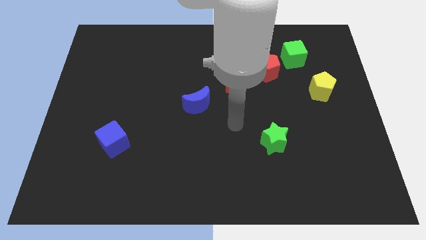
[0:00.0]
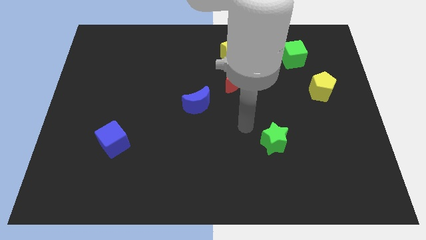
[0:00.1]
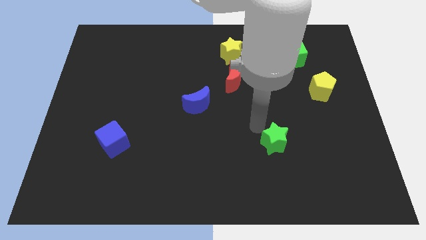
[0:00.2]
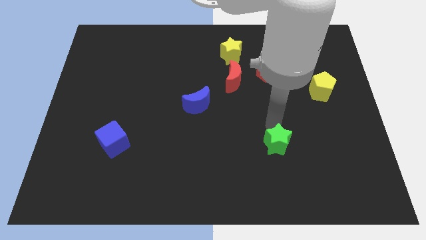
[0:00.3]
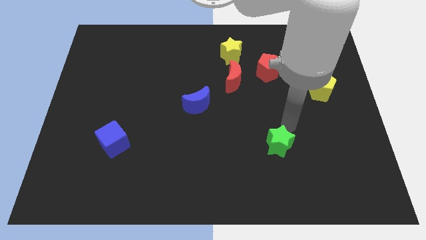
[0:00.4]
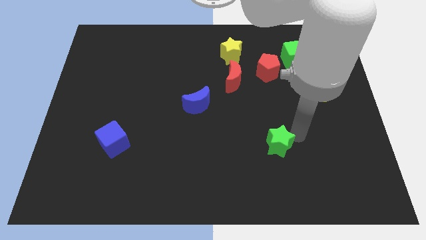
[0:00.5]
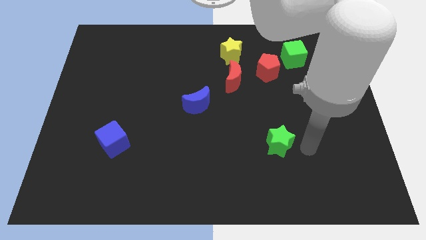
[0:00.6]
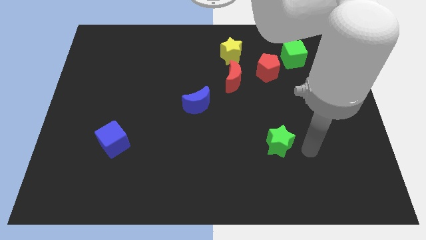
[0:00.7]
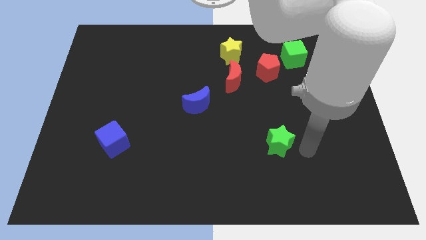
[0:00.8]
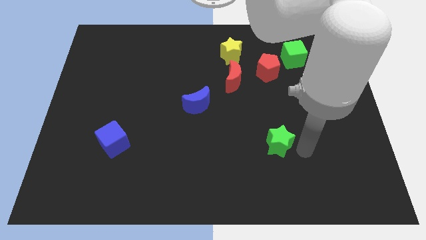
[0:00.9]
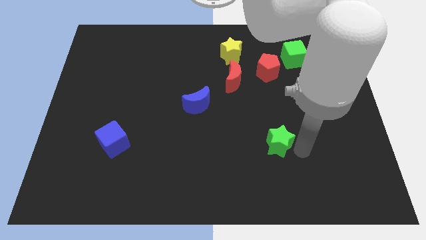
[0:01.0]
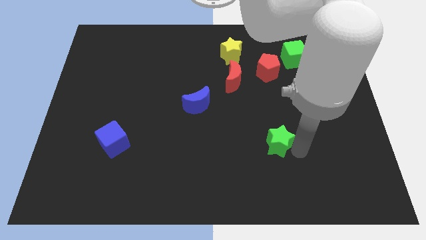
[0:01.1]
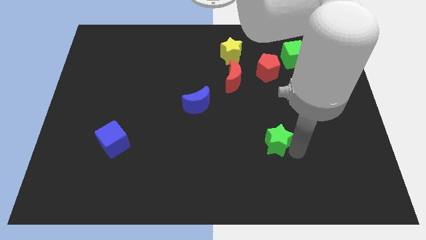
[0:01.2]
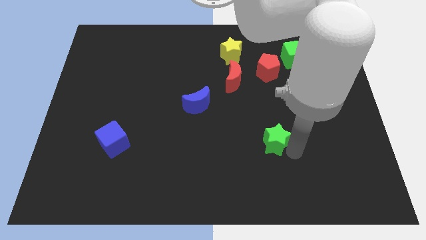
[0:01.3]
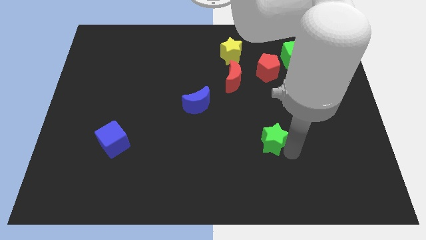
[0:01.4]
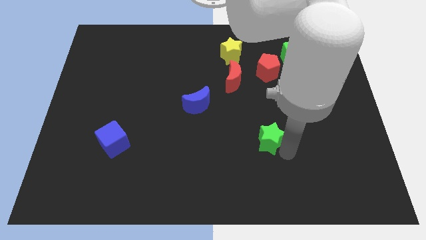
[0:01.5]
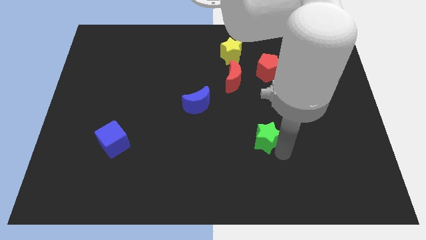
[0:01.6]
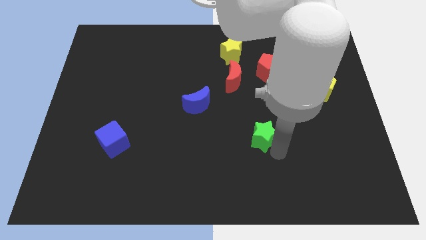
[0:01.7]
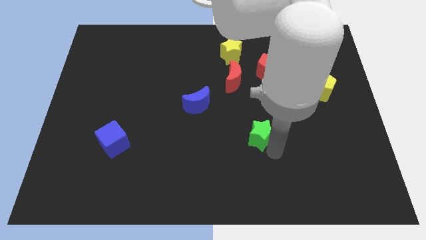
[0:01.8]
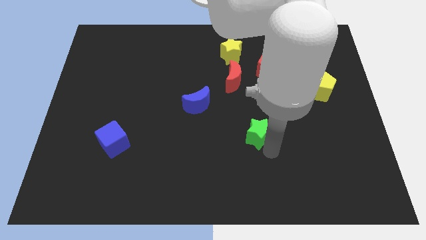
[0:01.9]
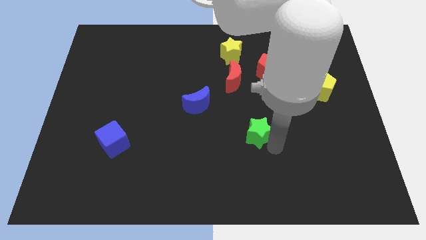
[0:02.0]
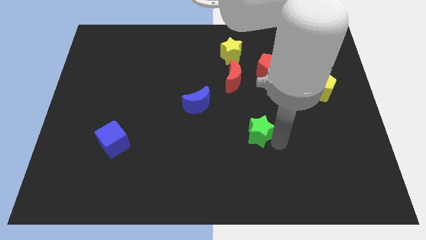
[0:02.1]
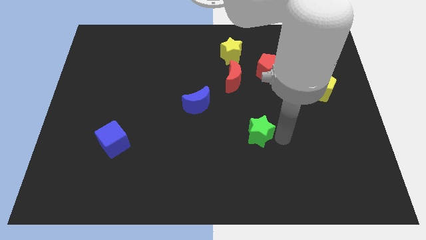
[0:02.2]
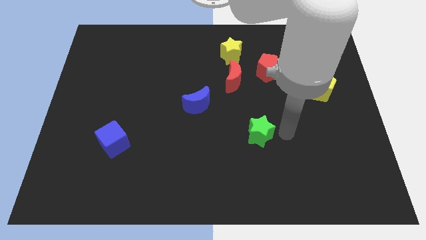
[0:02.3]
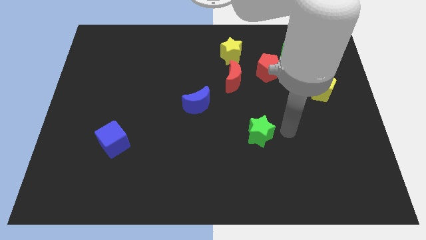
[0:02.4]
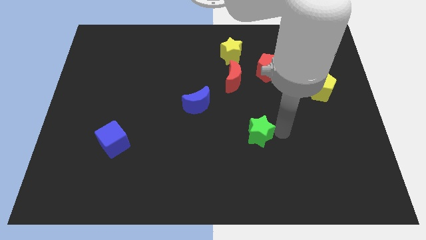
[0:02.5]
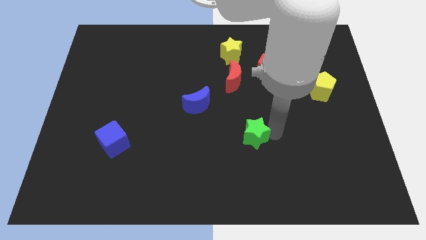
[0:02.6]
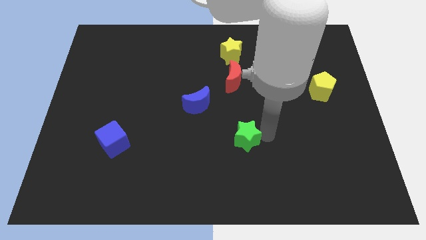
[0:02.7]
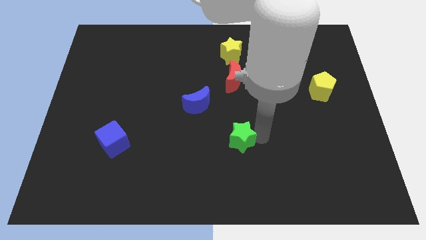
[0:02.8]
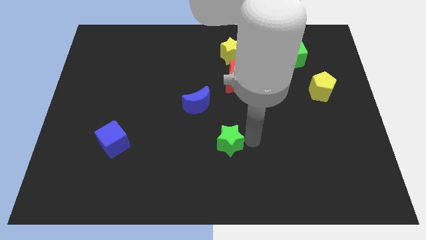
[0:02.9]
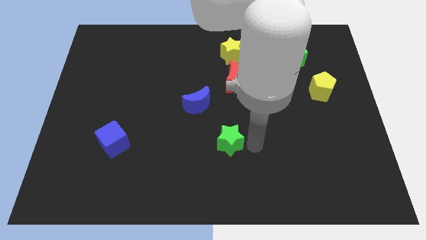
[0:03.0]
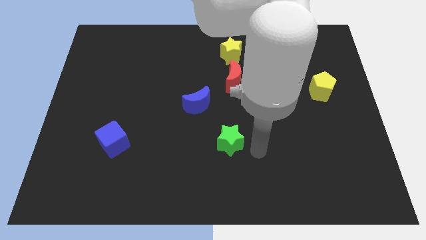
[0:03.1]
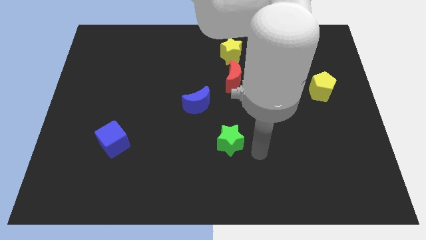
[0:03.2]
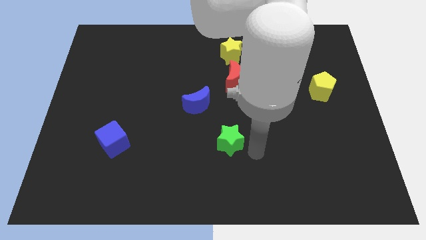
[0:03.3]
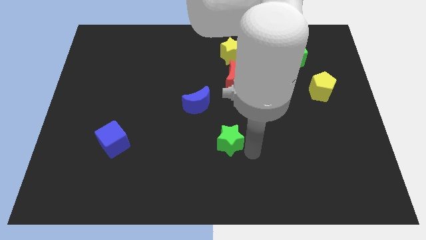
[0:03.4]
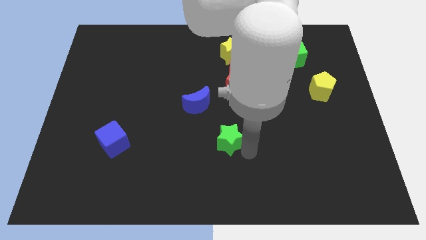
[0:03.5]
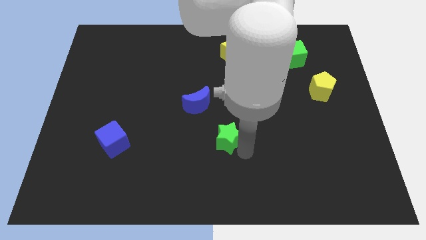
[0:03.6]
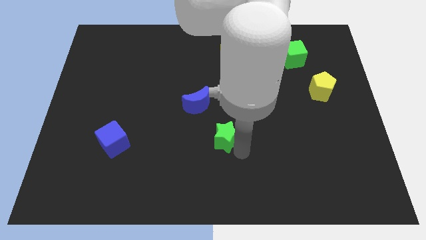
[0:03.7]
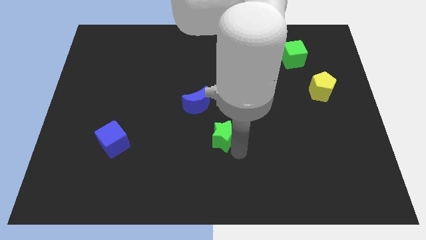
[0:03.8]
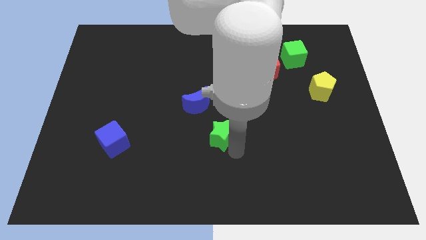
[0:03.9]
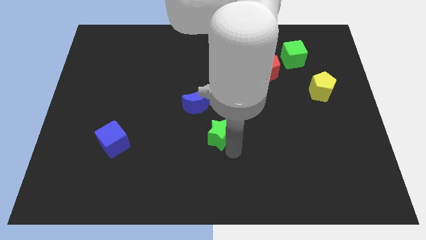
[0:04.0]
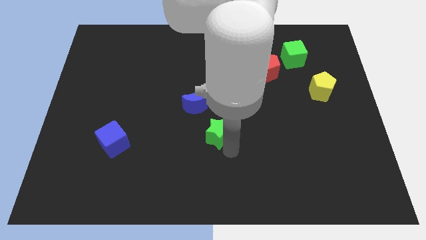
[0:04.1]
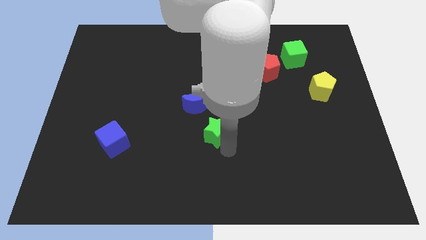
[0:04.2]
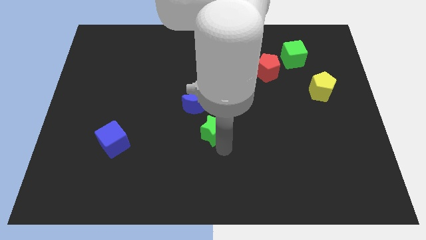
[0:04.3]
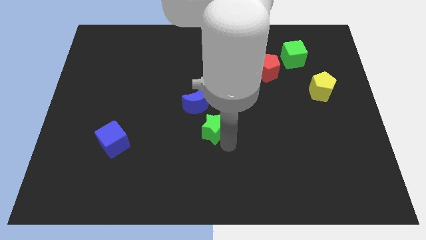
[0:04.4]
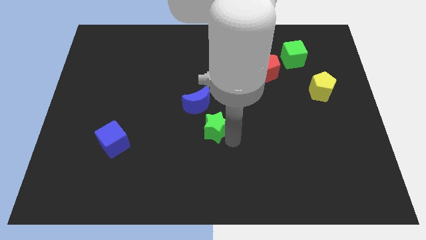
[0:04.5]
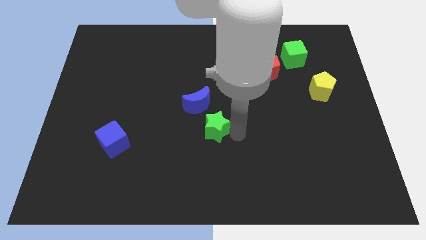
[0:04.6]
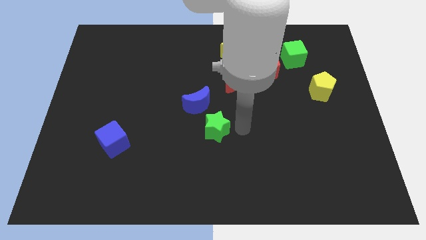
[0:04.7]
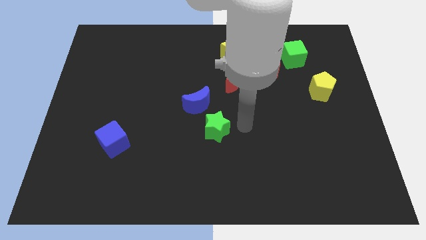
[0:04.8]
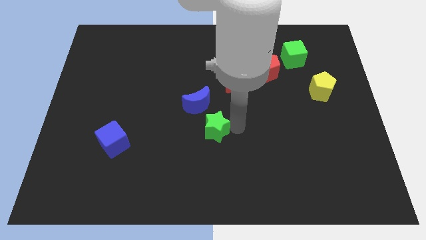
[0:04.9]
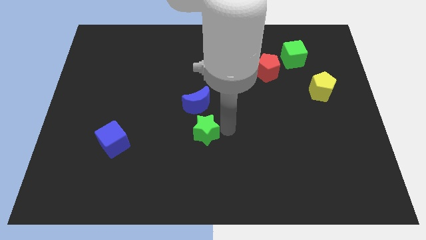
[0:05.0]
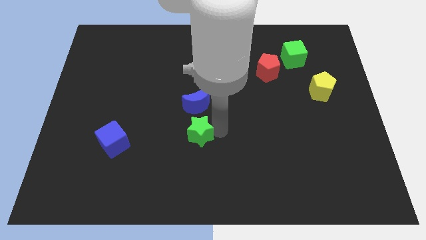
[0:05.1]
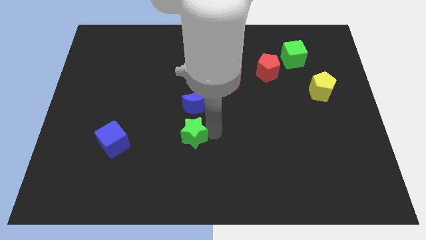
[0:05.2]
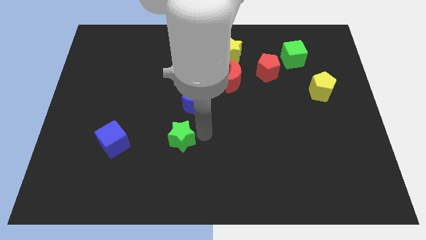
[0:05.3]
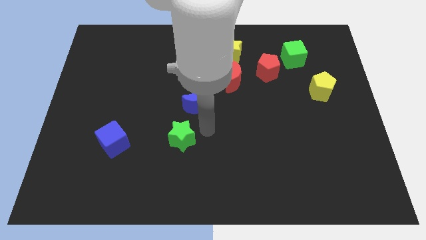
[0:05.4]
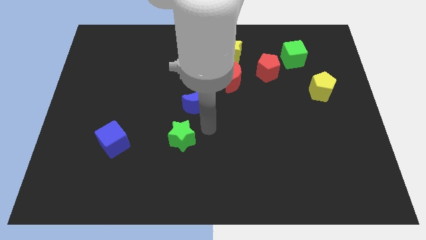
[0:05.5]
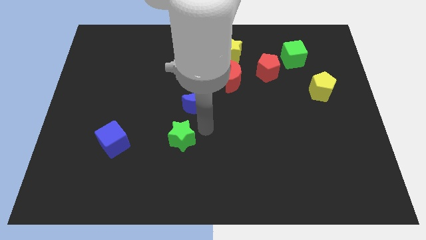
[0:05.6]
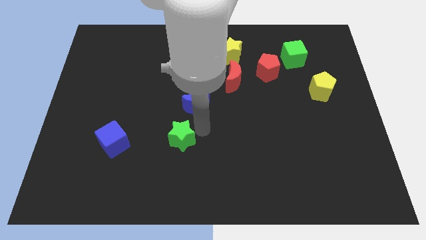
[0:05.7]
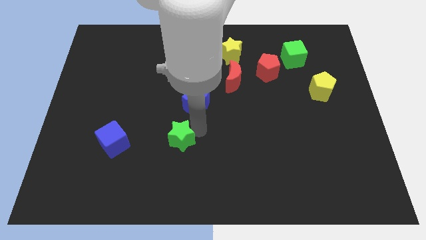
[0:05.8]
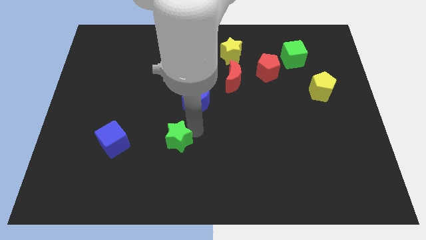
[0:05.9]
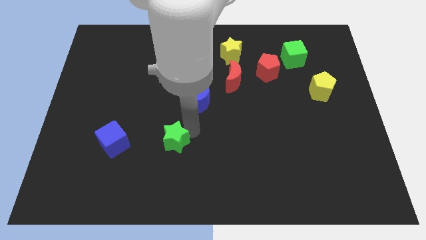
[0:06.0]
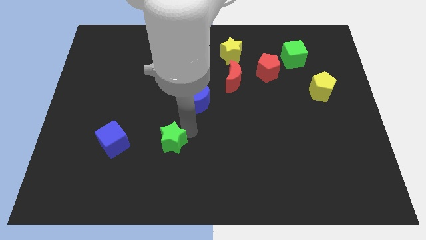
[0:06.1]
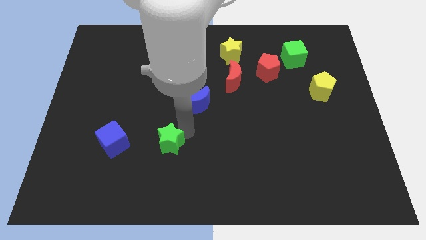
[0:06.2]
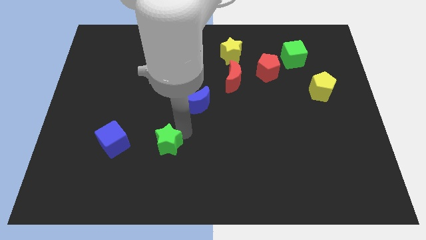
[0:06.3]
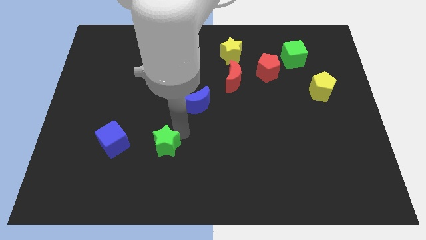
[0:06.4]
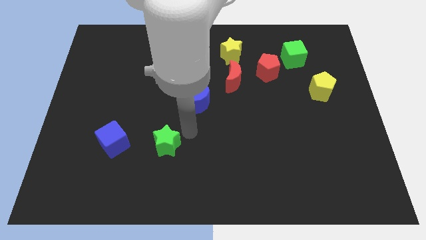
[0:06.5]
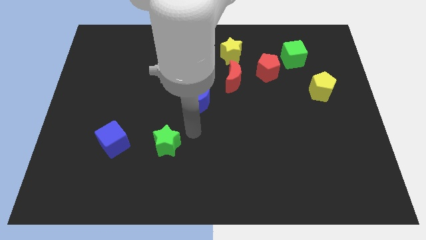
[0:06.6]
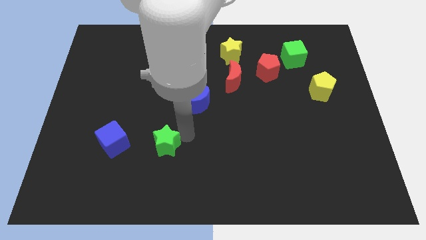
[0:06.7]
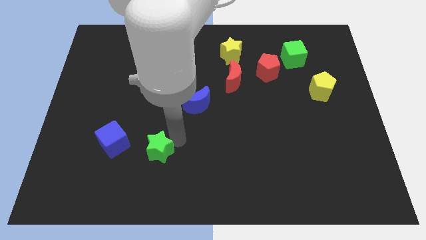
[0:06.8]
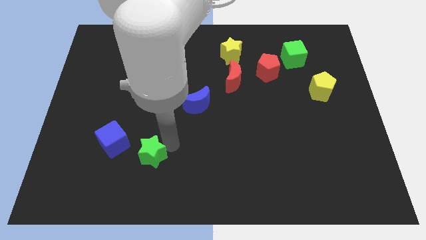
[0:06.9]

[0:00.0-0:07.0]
put the green star diagonally down and to the right of the blue cube
